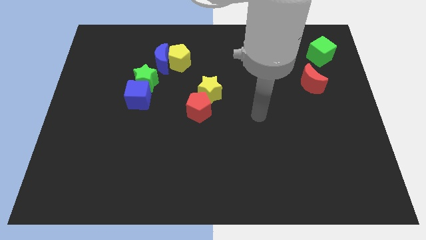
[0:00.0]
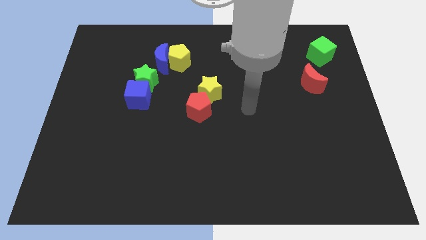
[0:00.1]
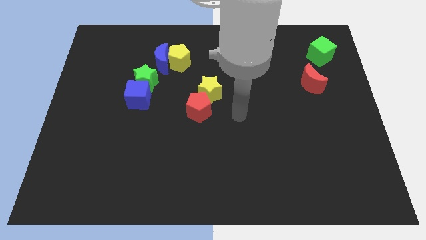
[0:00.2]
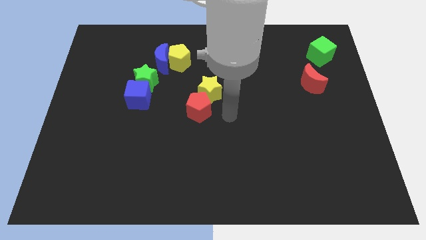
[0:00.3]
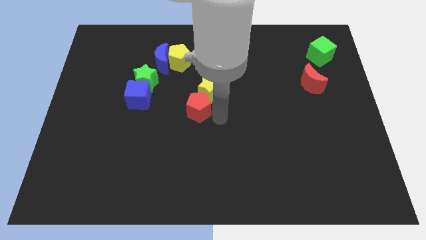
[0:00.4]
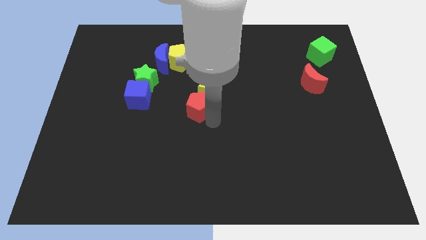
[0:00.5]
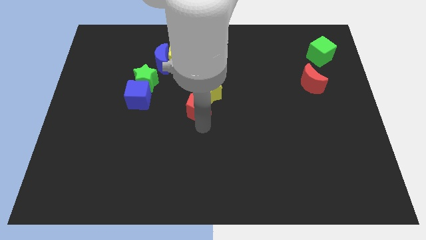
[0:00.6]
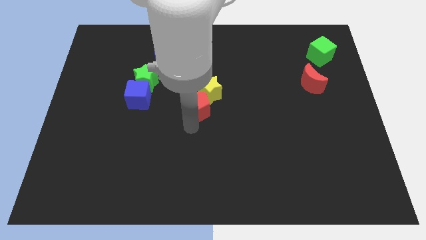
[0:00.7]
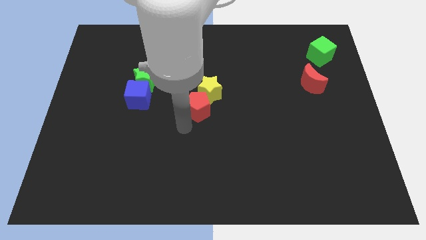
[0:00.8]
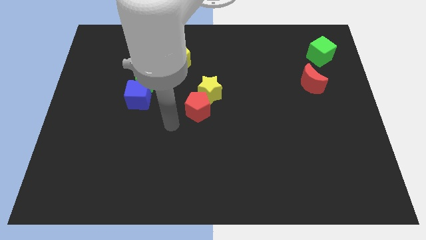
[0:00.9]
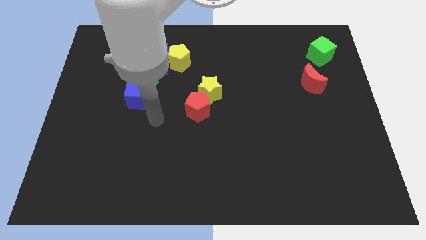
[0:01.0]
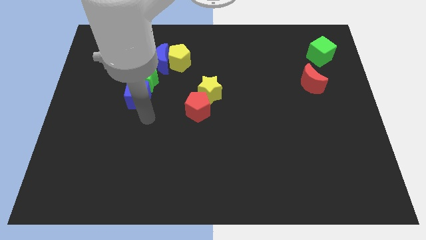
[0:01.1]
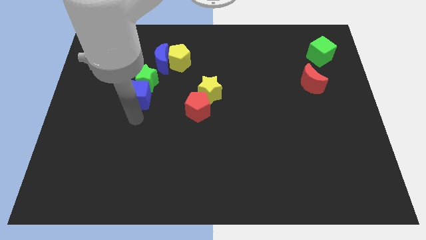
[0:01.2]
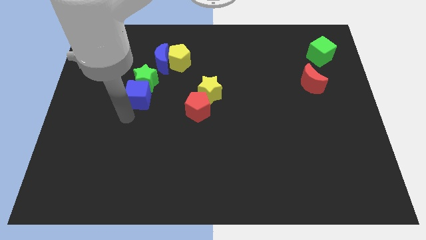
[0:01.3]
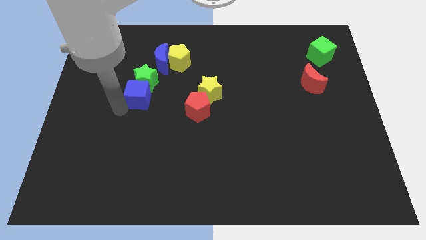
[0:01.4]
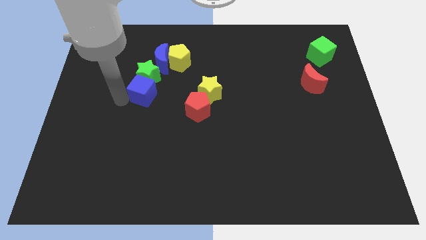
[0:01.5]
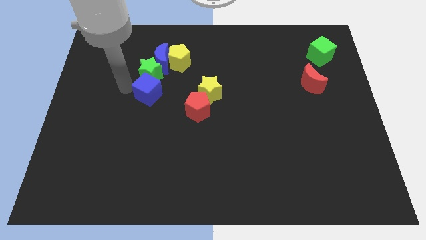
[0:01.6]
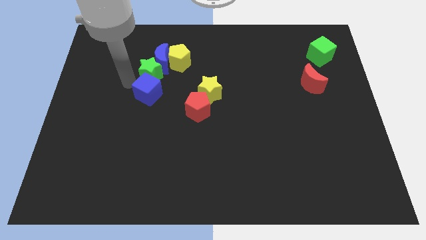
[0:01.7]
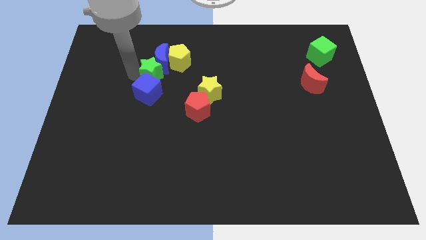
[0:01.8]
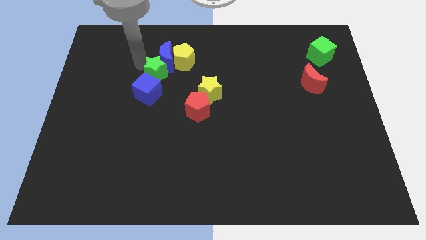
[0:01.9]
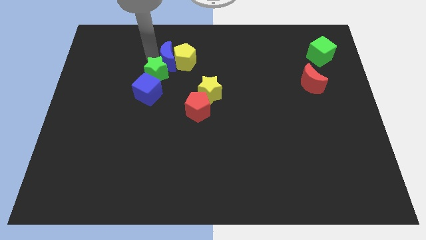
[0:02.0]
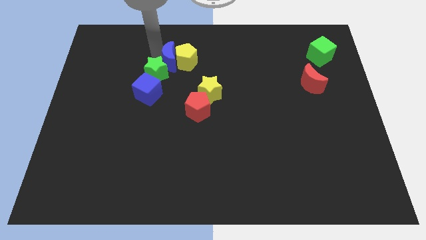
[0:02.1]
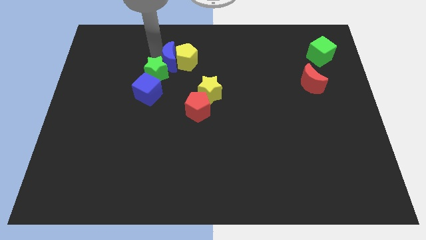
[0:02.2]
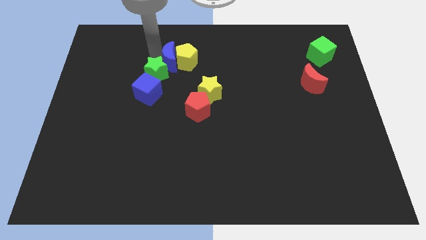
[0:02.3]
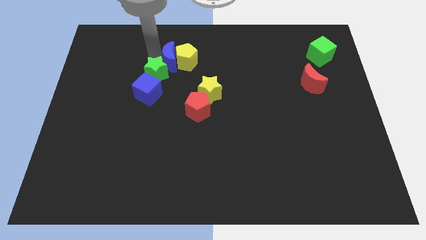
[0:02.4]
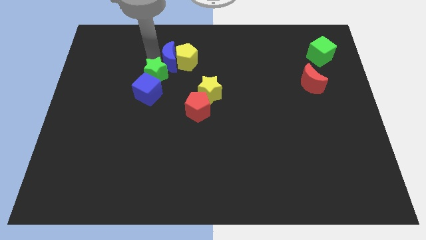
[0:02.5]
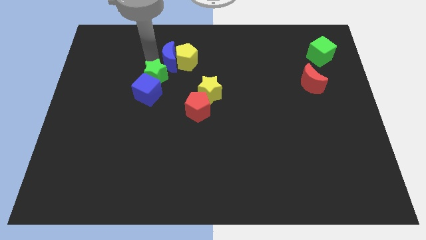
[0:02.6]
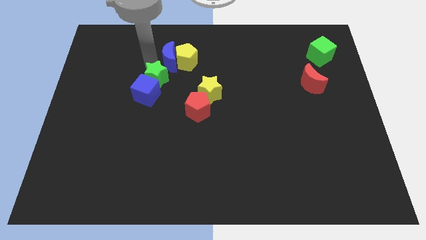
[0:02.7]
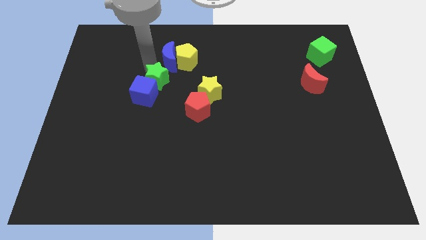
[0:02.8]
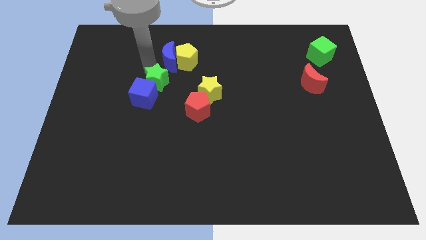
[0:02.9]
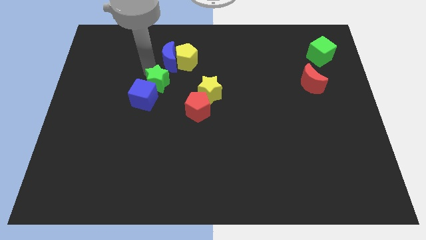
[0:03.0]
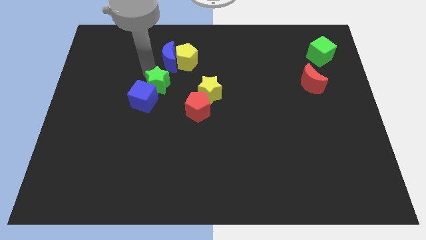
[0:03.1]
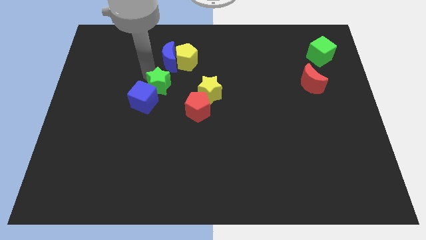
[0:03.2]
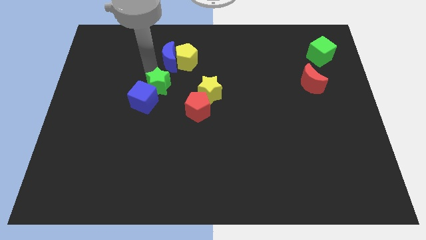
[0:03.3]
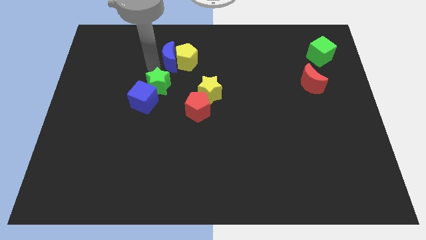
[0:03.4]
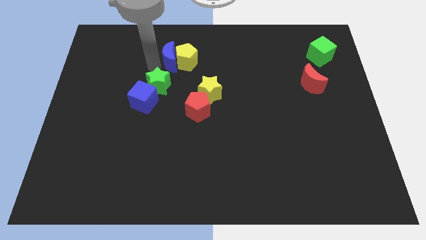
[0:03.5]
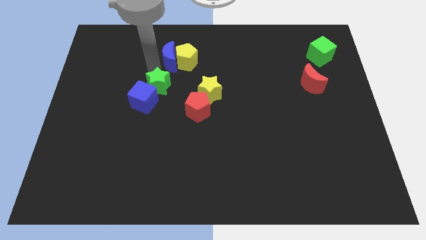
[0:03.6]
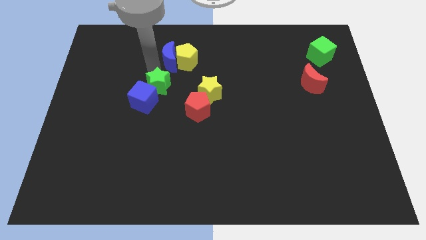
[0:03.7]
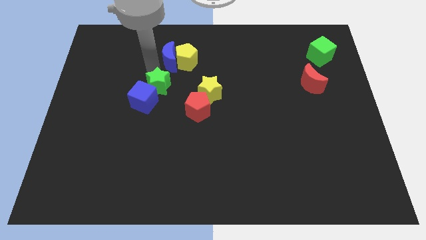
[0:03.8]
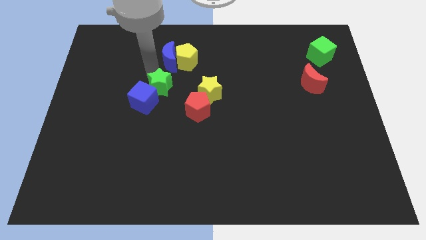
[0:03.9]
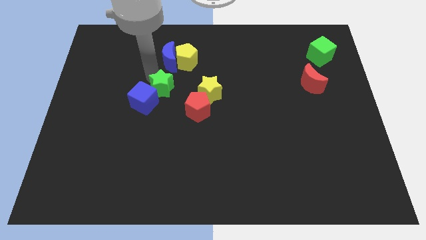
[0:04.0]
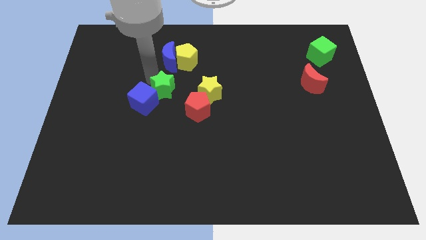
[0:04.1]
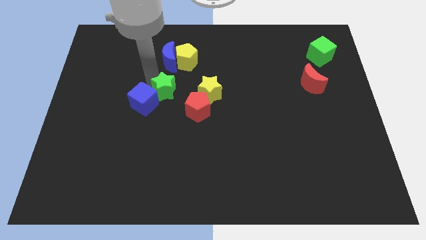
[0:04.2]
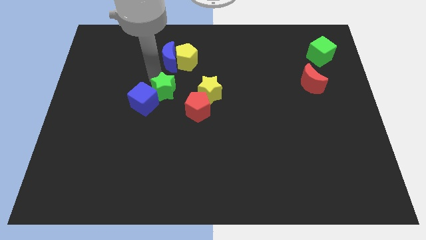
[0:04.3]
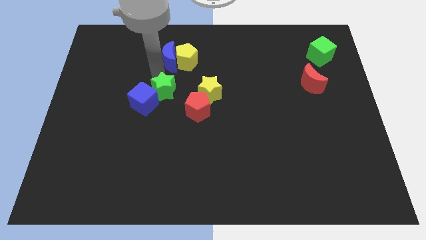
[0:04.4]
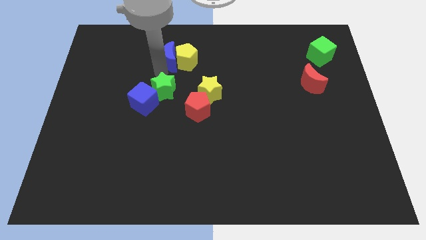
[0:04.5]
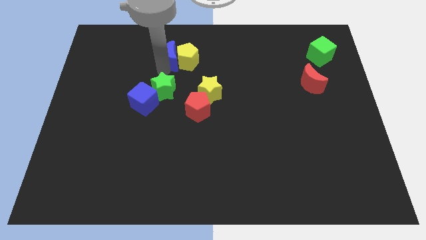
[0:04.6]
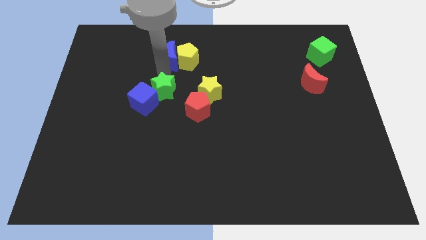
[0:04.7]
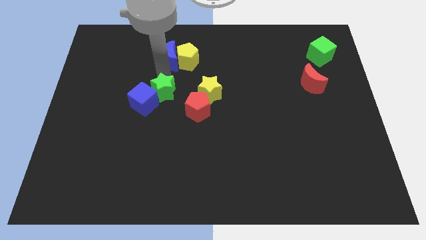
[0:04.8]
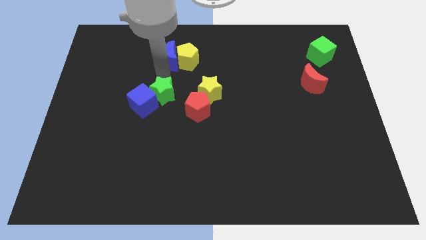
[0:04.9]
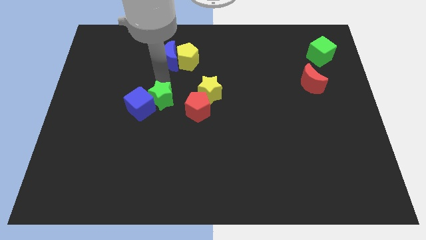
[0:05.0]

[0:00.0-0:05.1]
slightly move the green star down and then right

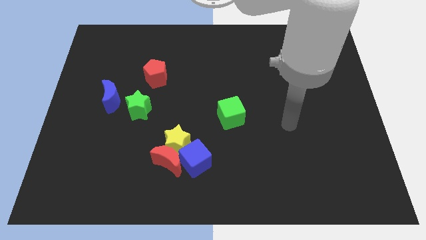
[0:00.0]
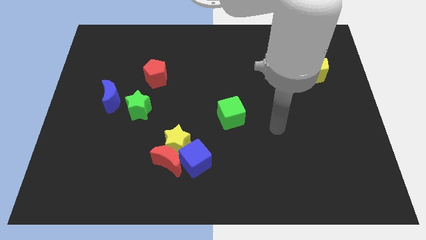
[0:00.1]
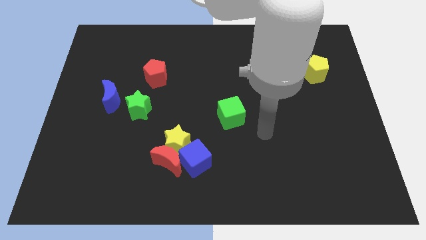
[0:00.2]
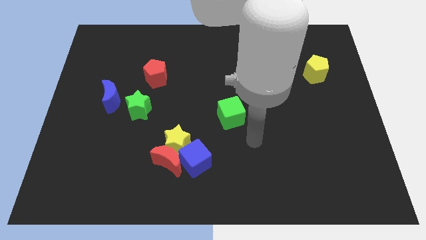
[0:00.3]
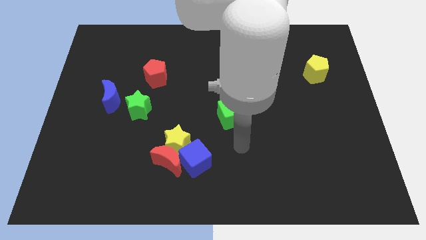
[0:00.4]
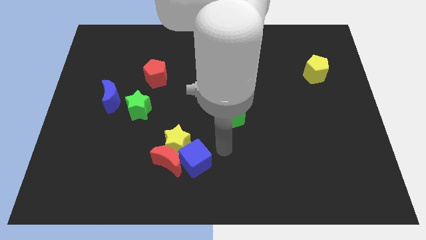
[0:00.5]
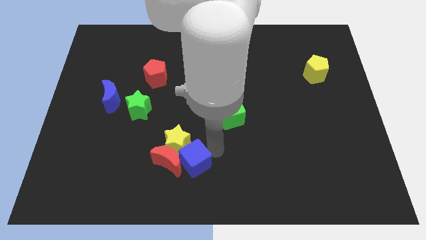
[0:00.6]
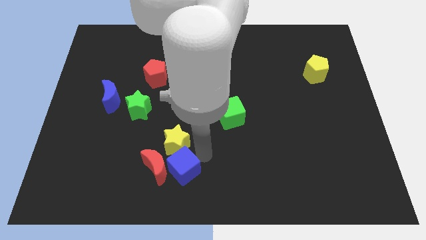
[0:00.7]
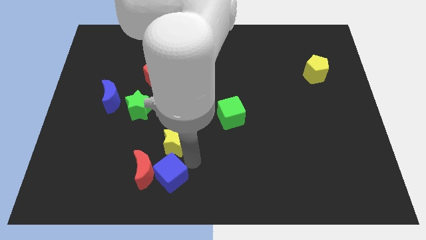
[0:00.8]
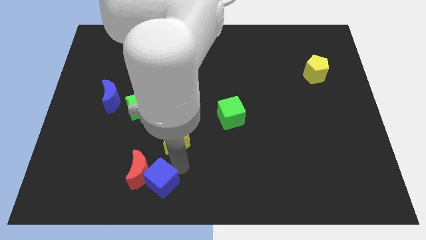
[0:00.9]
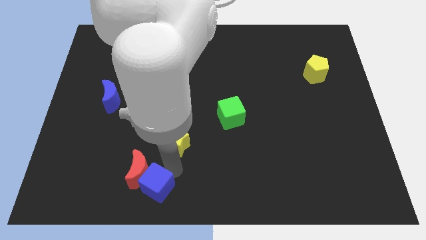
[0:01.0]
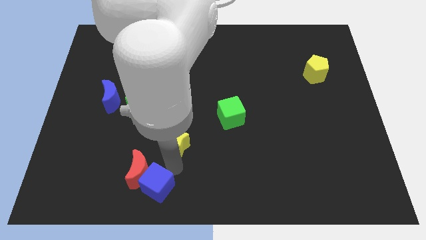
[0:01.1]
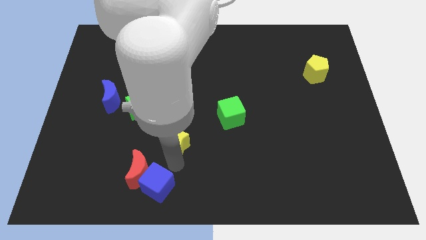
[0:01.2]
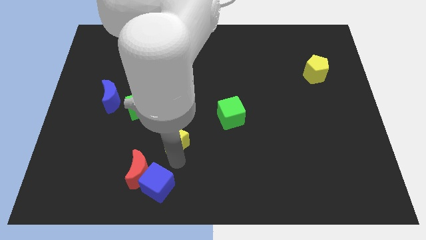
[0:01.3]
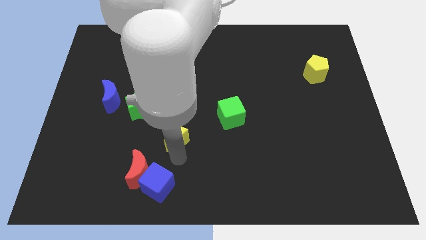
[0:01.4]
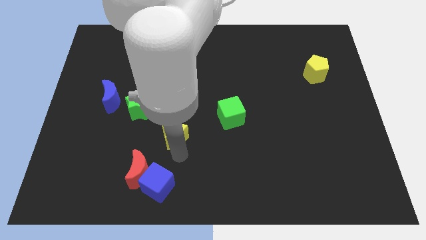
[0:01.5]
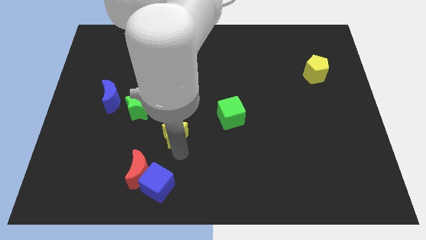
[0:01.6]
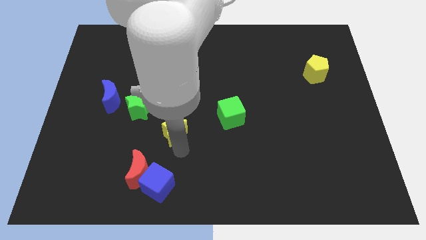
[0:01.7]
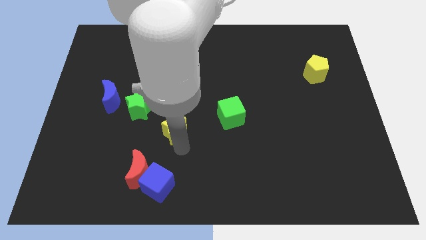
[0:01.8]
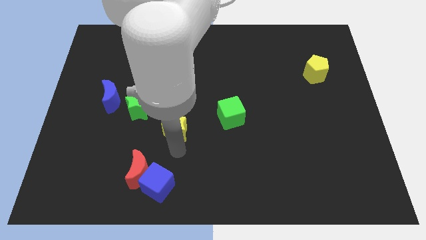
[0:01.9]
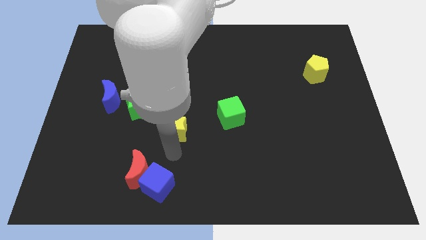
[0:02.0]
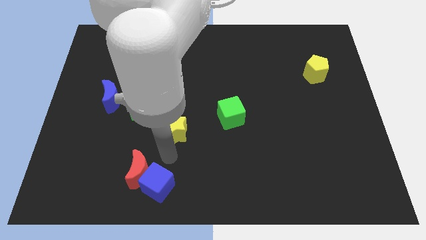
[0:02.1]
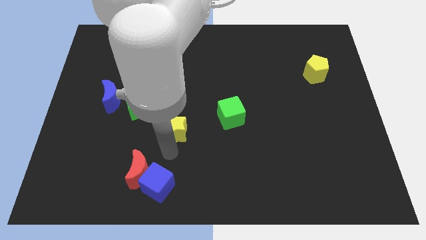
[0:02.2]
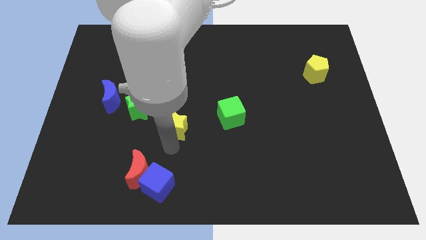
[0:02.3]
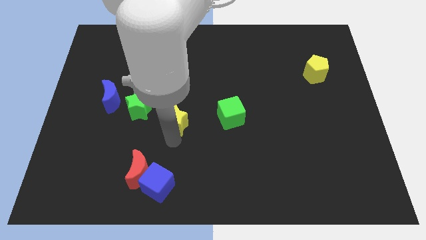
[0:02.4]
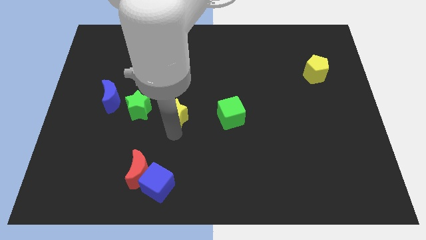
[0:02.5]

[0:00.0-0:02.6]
move the yellow star up a bit

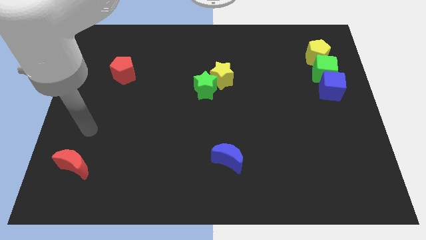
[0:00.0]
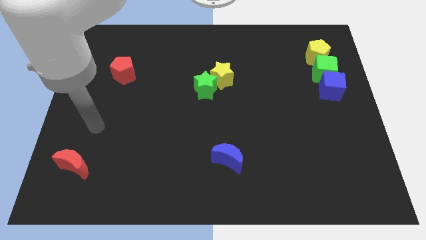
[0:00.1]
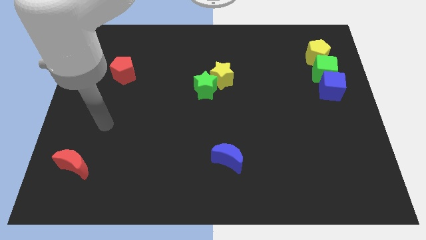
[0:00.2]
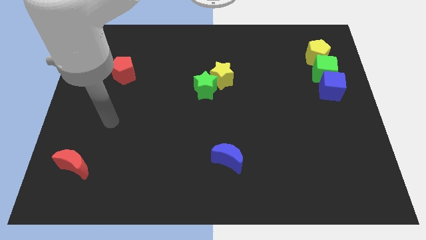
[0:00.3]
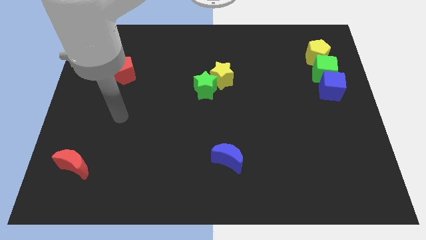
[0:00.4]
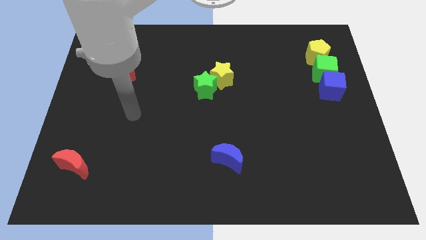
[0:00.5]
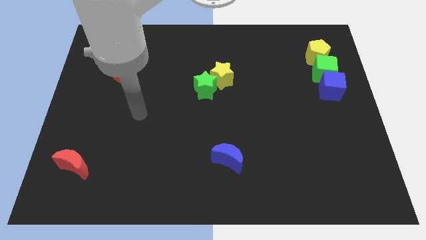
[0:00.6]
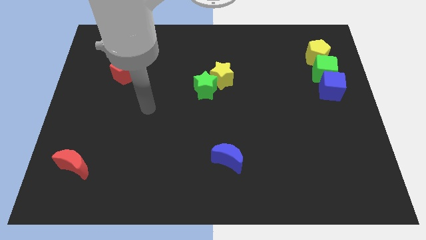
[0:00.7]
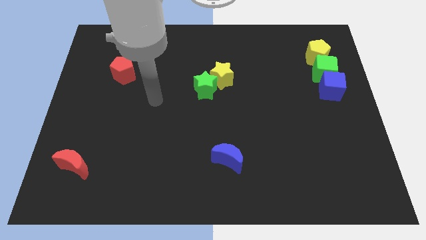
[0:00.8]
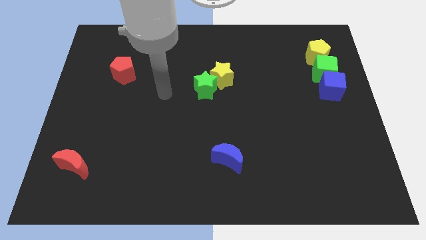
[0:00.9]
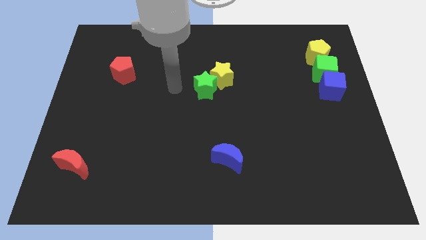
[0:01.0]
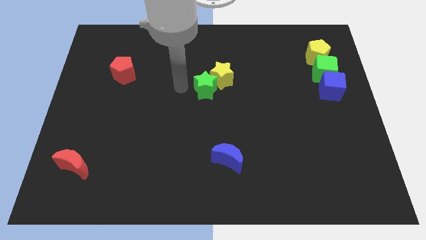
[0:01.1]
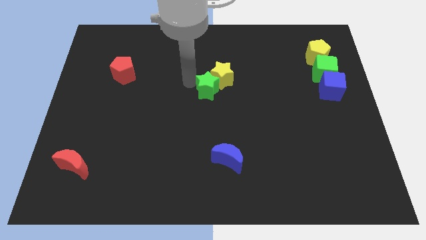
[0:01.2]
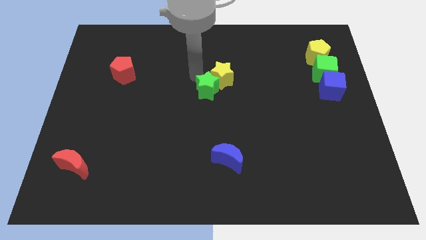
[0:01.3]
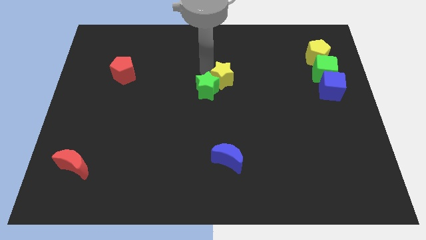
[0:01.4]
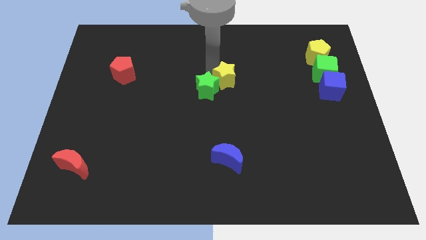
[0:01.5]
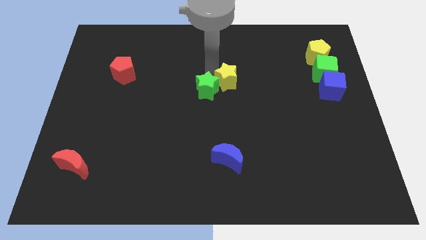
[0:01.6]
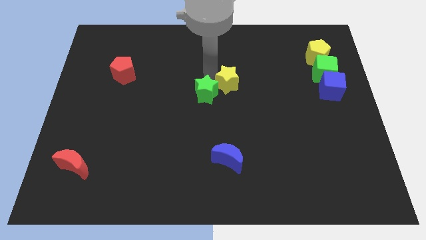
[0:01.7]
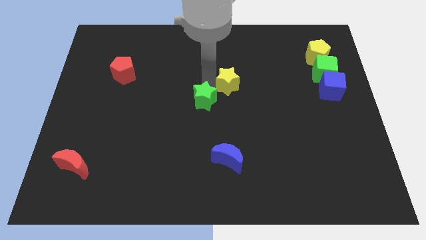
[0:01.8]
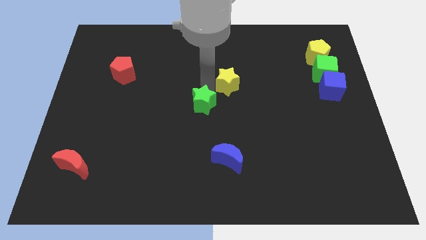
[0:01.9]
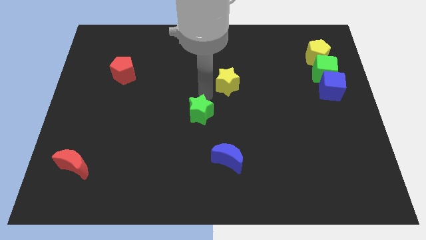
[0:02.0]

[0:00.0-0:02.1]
move the green star down slightly
